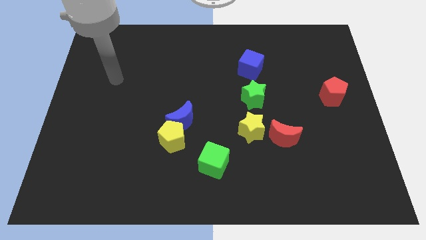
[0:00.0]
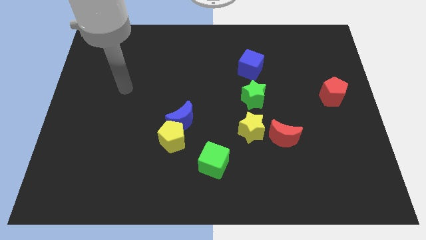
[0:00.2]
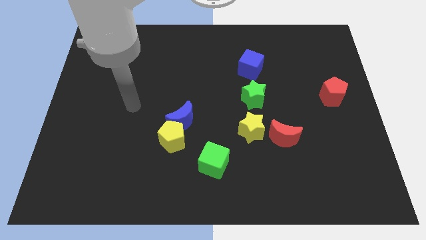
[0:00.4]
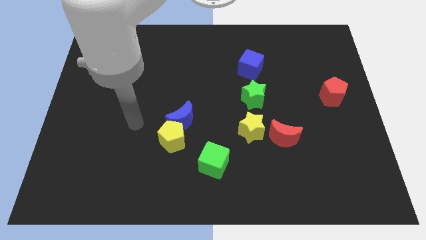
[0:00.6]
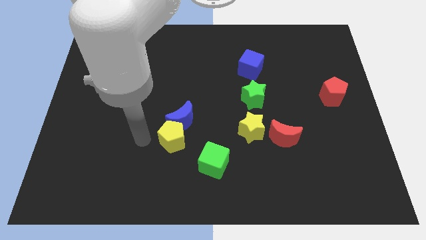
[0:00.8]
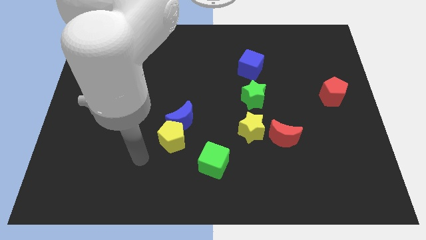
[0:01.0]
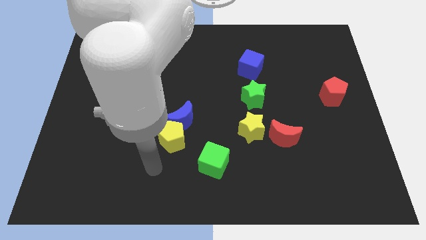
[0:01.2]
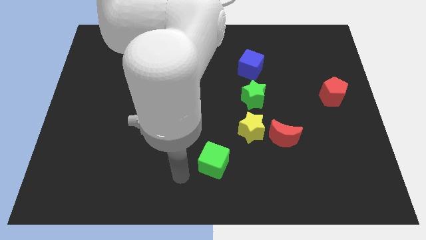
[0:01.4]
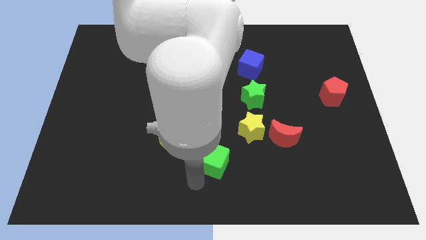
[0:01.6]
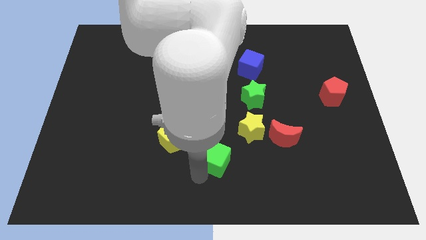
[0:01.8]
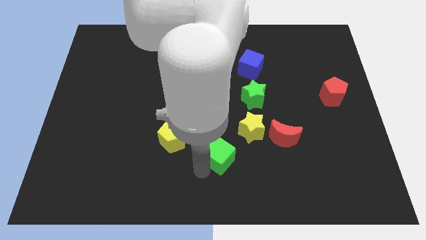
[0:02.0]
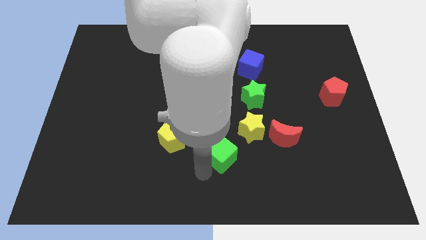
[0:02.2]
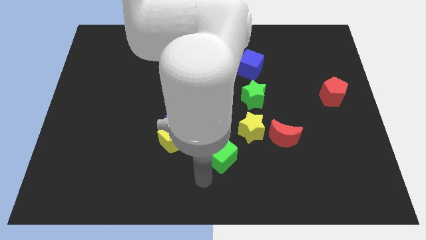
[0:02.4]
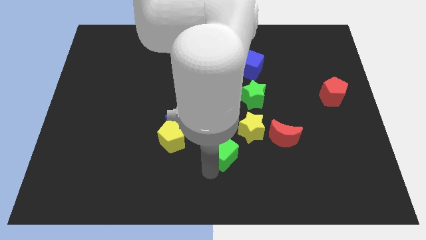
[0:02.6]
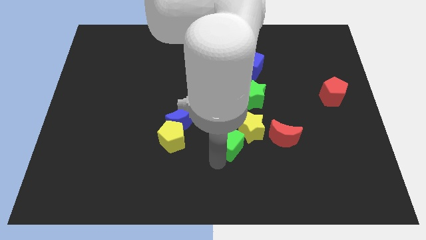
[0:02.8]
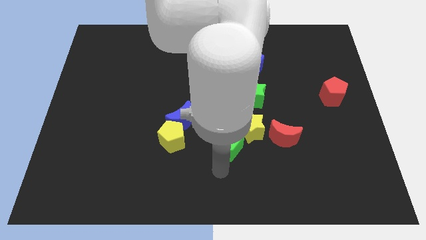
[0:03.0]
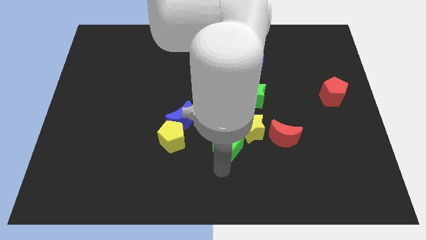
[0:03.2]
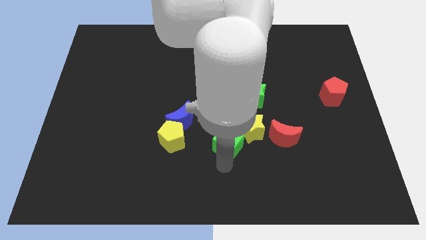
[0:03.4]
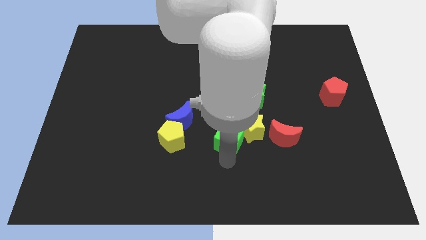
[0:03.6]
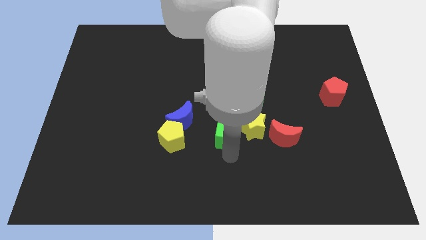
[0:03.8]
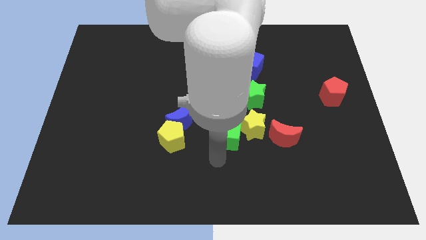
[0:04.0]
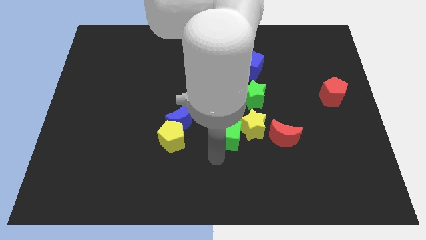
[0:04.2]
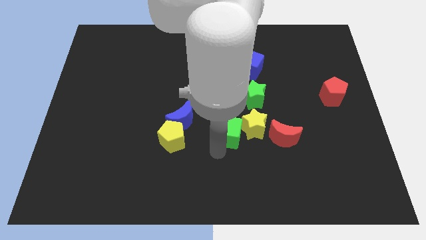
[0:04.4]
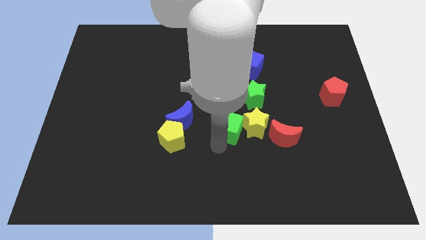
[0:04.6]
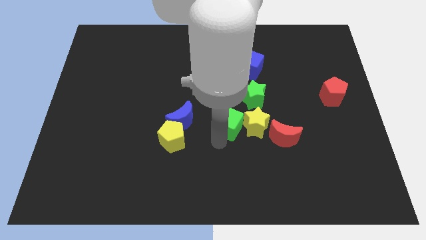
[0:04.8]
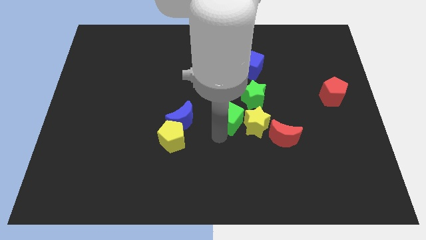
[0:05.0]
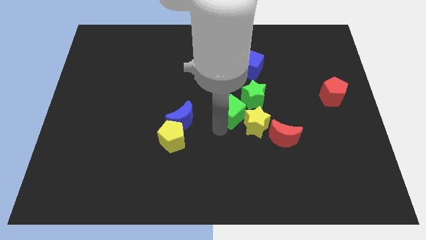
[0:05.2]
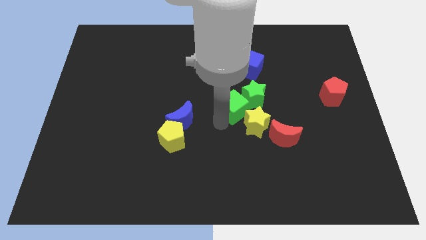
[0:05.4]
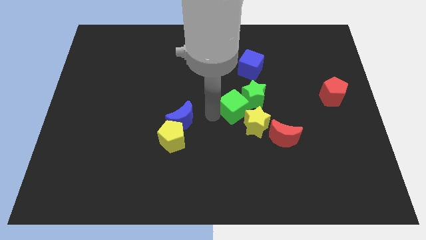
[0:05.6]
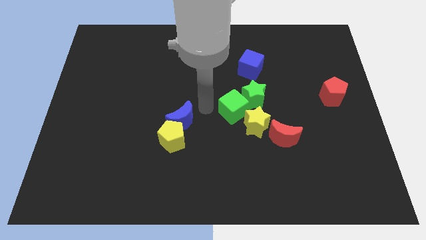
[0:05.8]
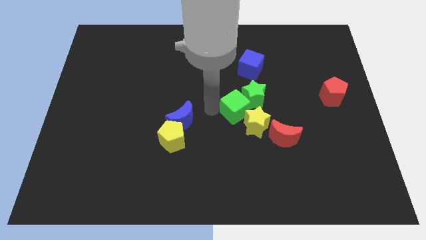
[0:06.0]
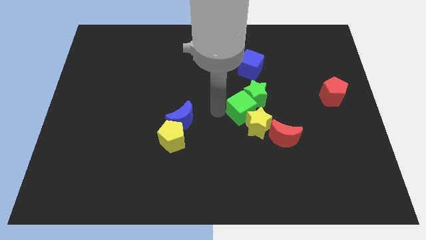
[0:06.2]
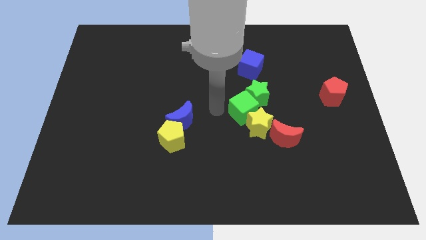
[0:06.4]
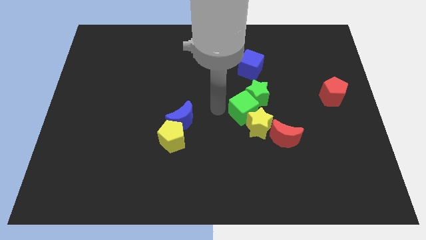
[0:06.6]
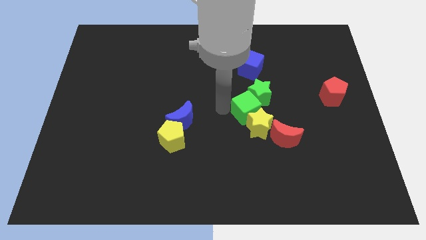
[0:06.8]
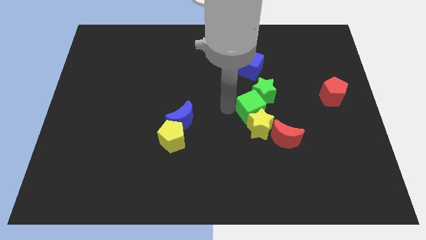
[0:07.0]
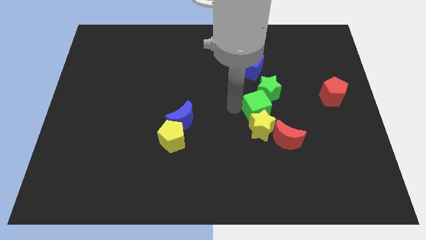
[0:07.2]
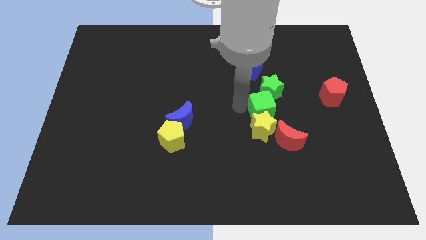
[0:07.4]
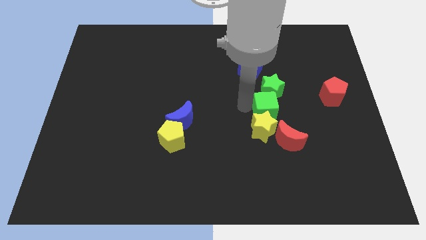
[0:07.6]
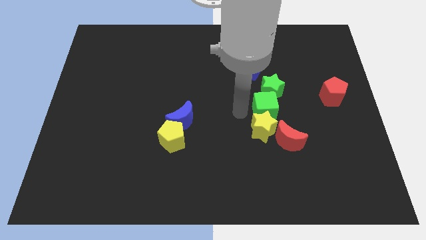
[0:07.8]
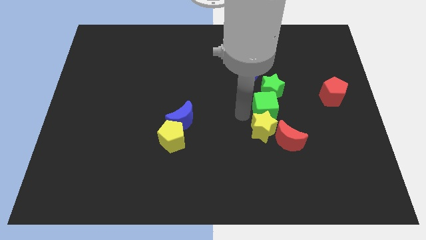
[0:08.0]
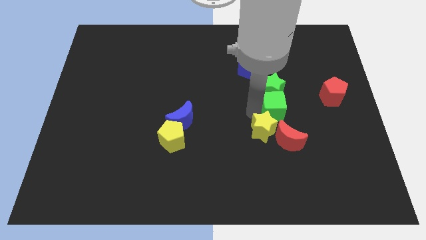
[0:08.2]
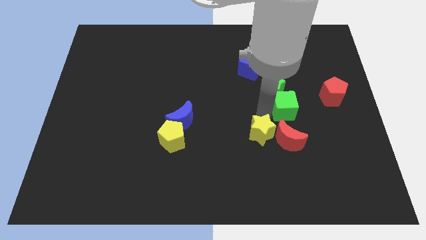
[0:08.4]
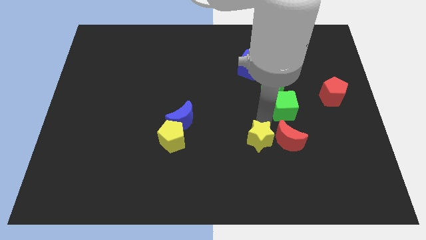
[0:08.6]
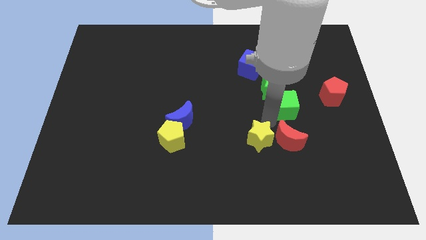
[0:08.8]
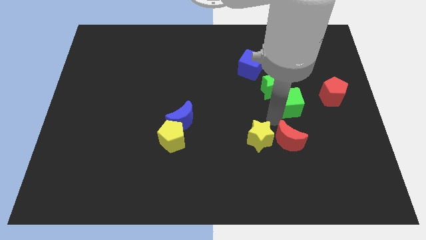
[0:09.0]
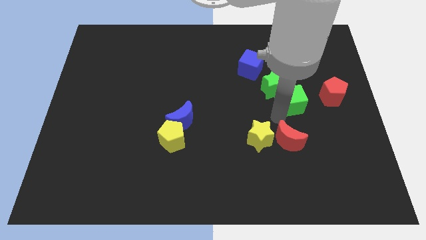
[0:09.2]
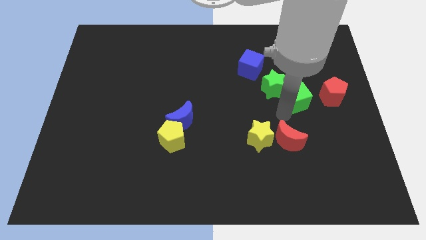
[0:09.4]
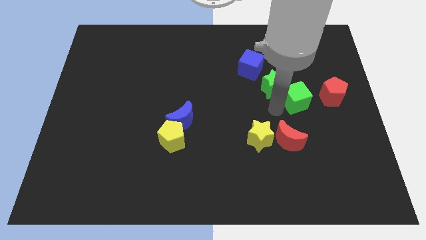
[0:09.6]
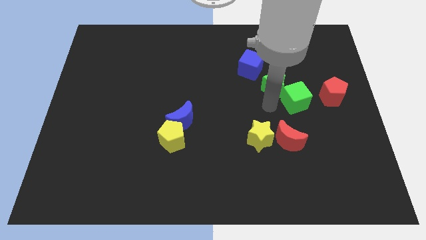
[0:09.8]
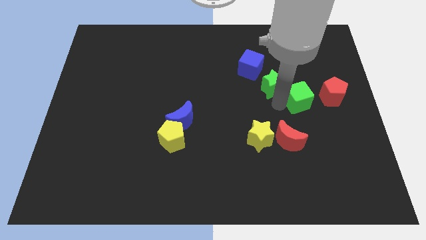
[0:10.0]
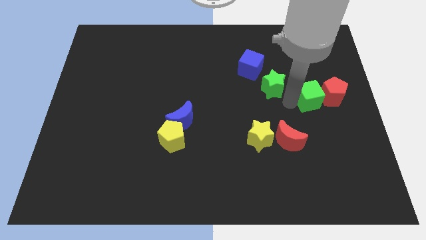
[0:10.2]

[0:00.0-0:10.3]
push the green cube close to the red pentagon

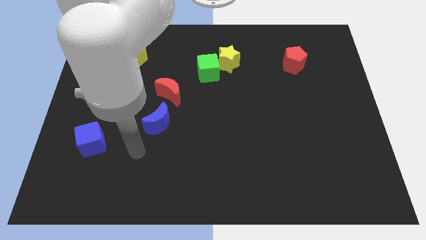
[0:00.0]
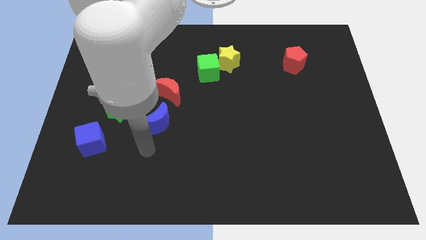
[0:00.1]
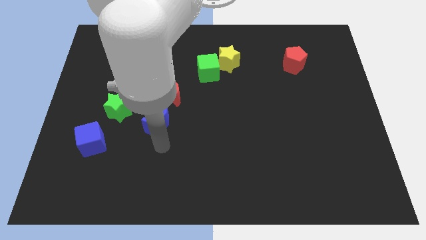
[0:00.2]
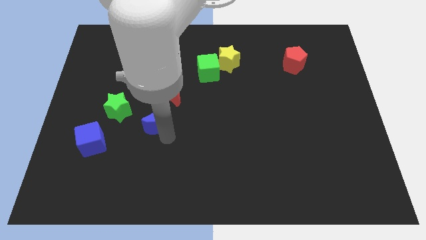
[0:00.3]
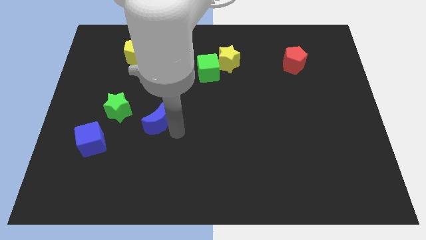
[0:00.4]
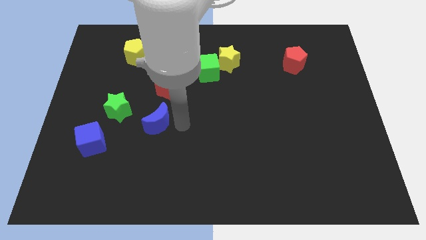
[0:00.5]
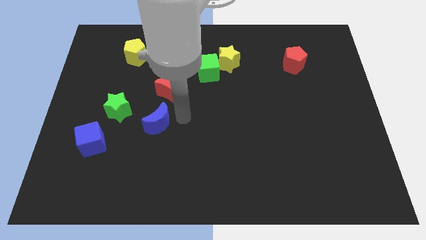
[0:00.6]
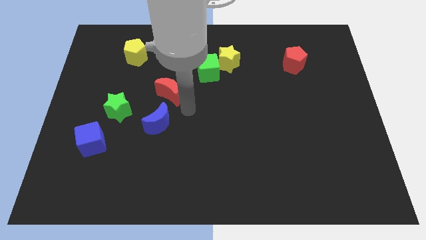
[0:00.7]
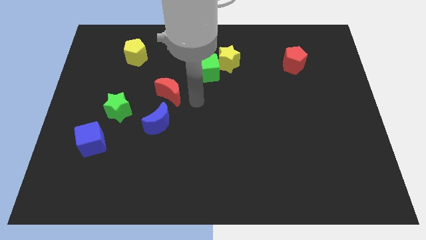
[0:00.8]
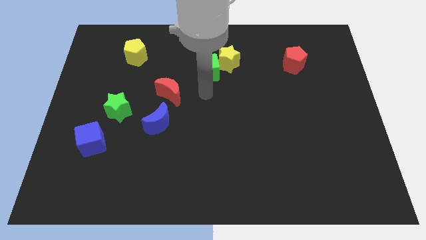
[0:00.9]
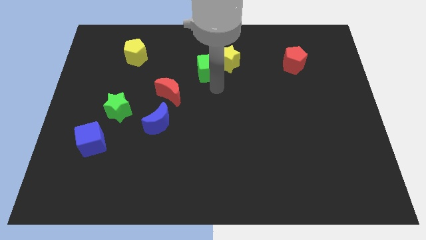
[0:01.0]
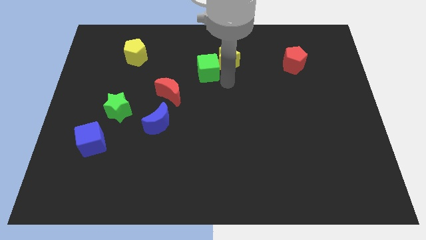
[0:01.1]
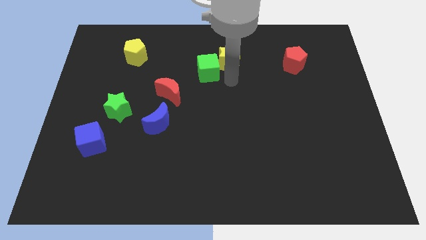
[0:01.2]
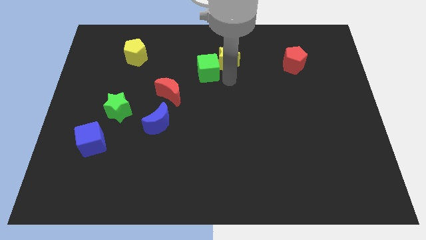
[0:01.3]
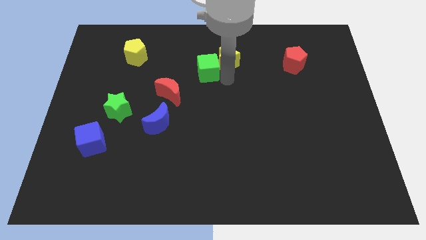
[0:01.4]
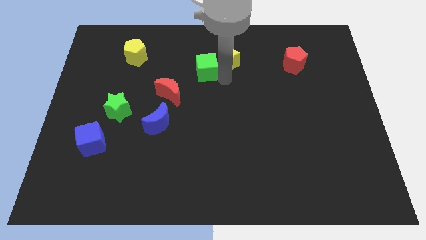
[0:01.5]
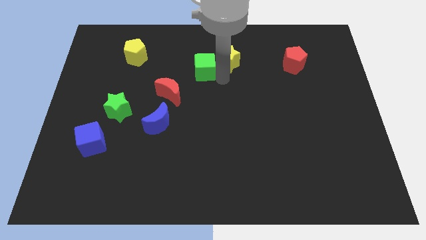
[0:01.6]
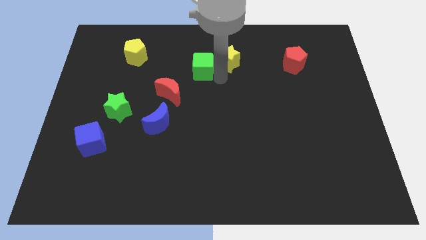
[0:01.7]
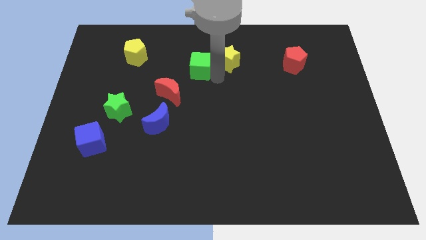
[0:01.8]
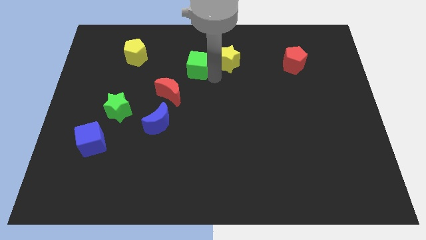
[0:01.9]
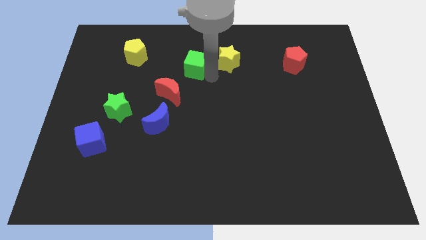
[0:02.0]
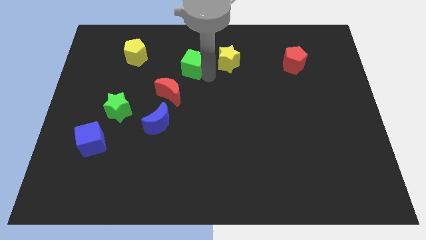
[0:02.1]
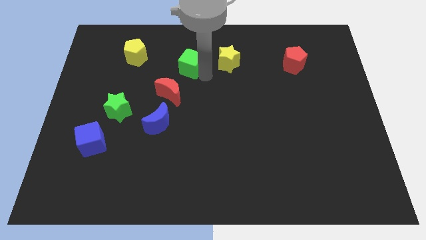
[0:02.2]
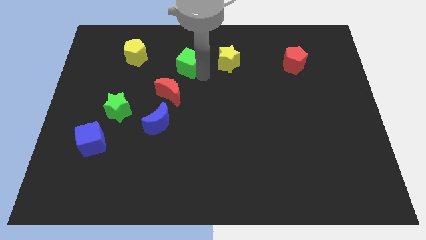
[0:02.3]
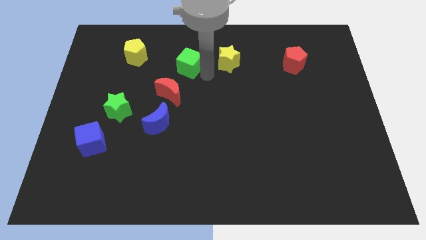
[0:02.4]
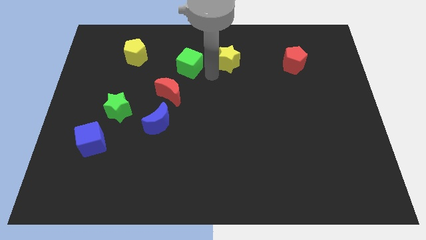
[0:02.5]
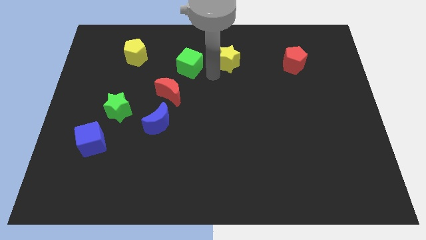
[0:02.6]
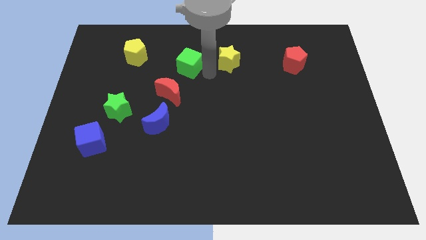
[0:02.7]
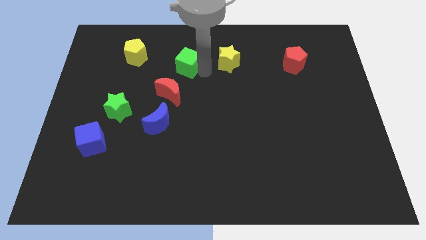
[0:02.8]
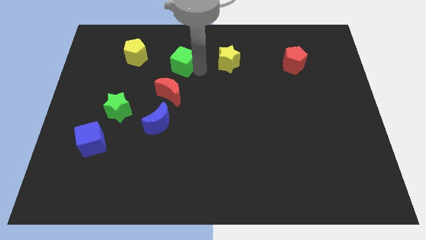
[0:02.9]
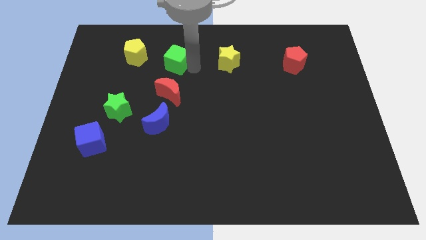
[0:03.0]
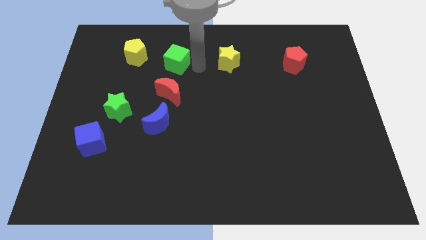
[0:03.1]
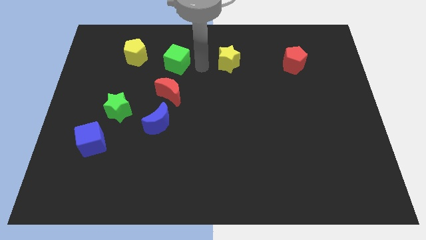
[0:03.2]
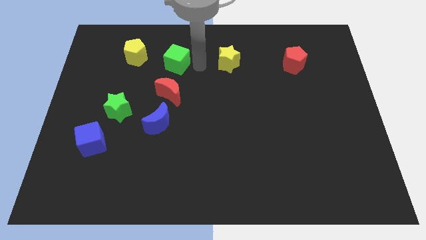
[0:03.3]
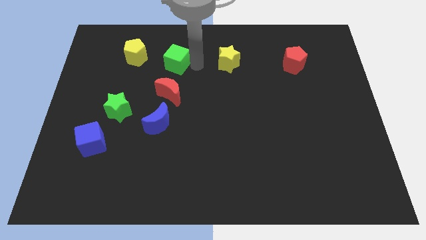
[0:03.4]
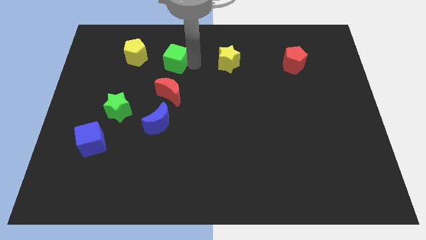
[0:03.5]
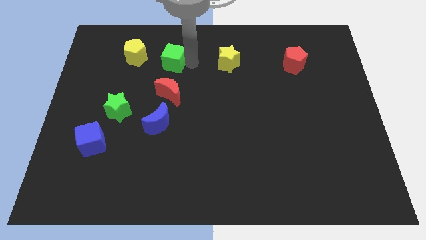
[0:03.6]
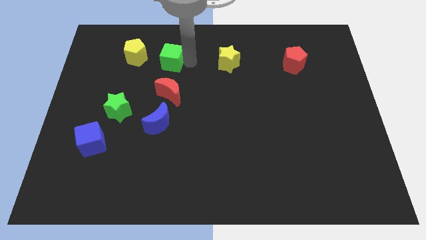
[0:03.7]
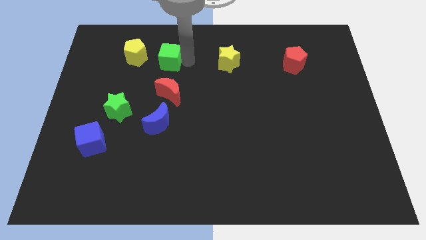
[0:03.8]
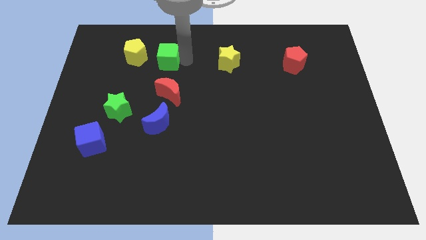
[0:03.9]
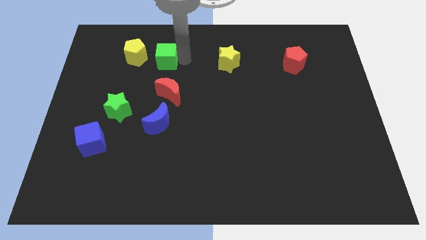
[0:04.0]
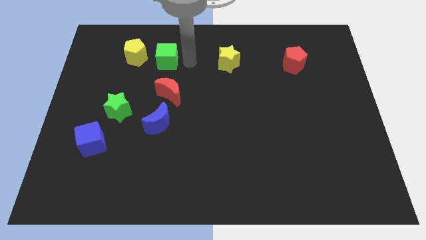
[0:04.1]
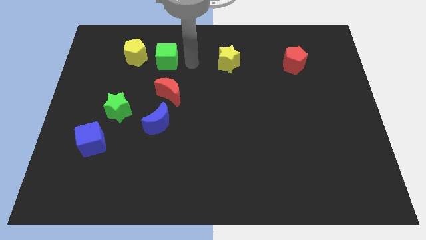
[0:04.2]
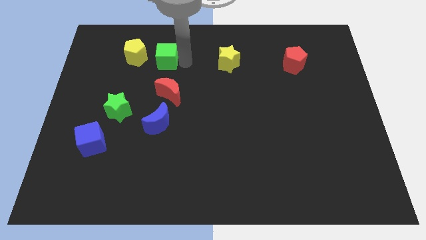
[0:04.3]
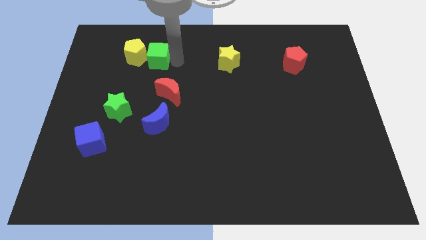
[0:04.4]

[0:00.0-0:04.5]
move the green cube towards the yellow pentagon
